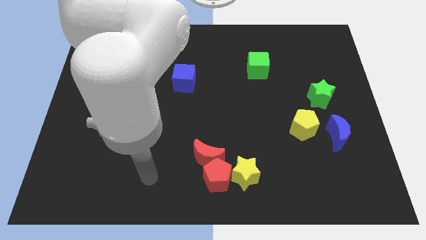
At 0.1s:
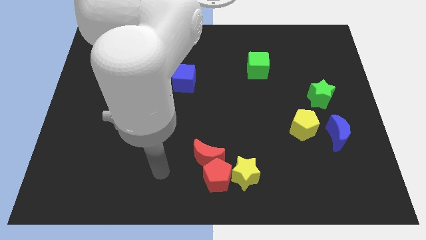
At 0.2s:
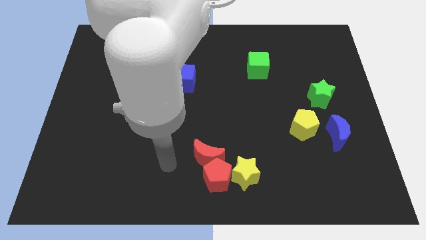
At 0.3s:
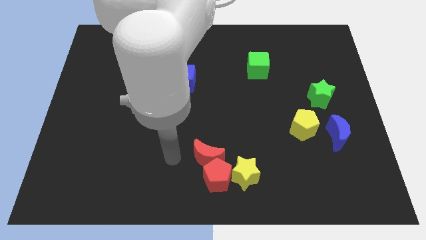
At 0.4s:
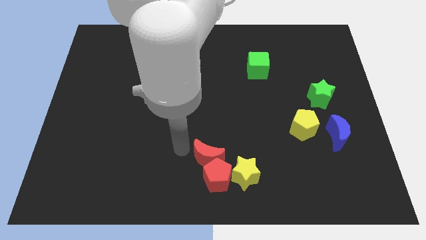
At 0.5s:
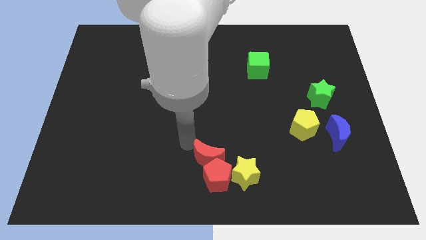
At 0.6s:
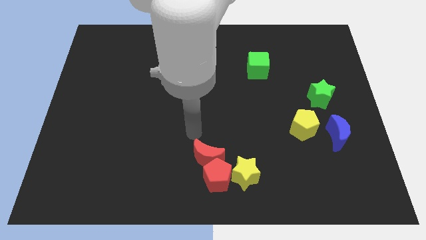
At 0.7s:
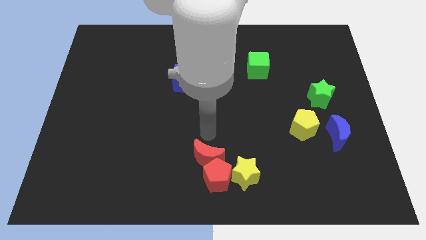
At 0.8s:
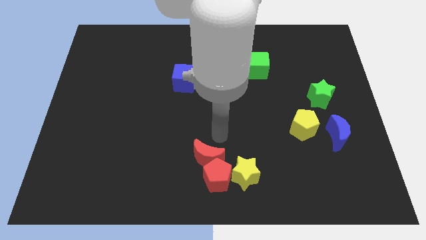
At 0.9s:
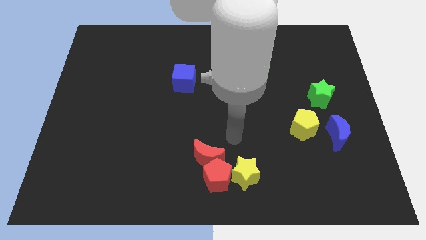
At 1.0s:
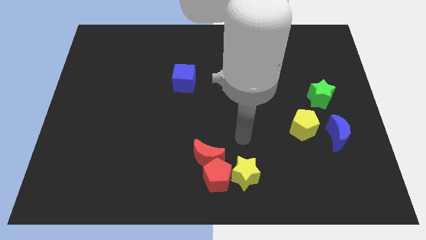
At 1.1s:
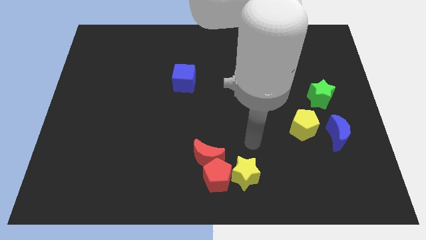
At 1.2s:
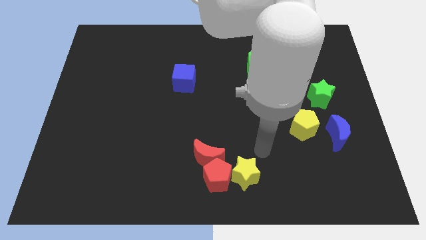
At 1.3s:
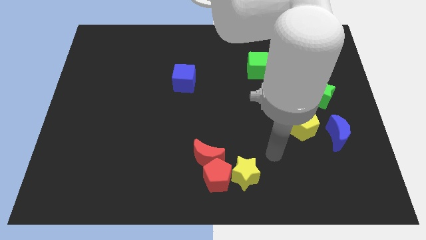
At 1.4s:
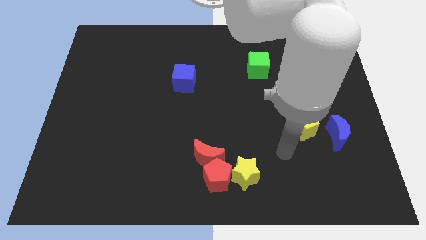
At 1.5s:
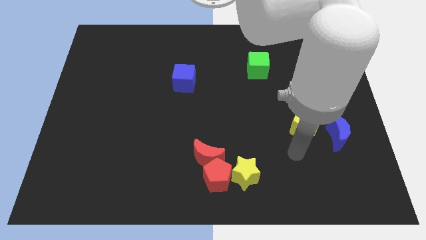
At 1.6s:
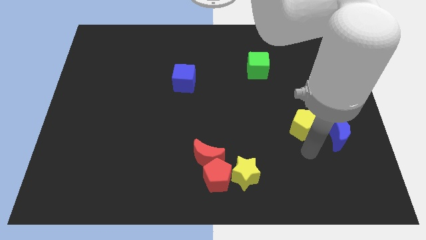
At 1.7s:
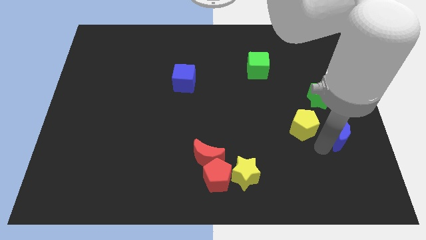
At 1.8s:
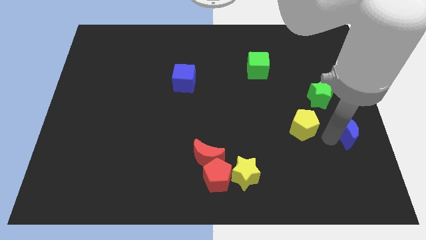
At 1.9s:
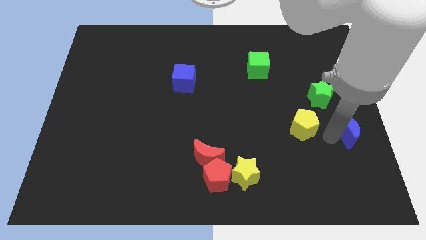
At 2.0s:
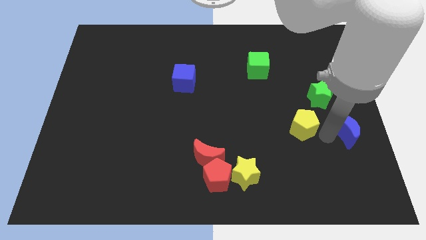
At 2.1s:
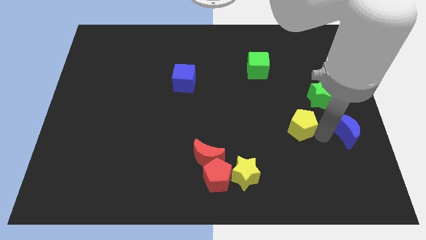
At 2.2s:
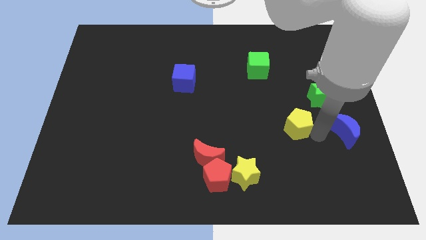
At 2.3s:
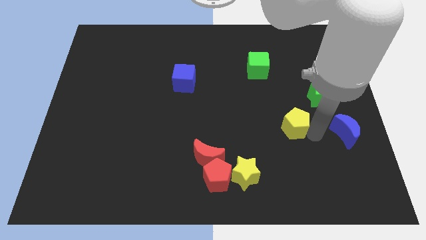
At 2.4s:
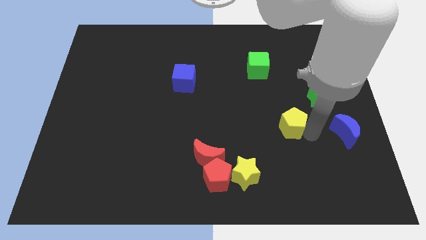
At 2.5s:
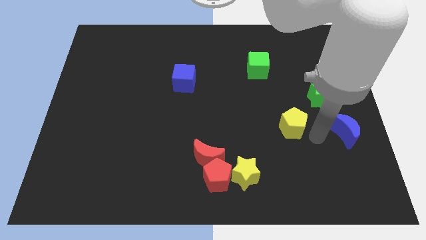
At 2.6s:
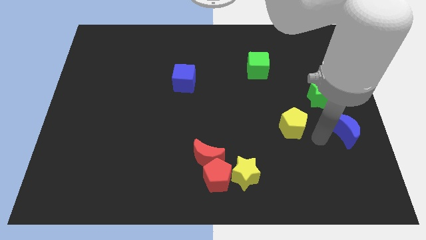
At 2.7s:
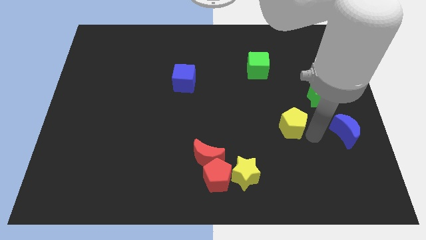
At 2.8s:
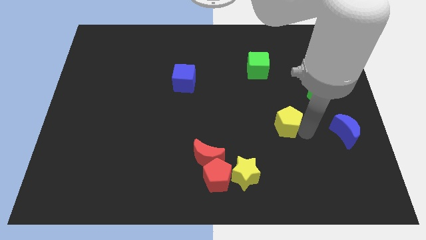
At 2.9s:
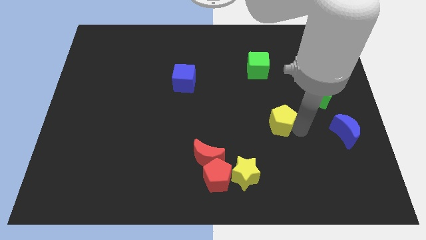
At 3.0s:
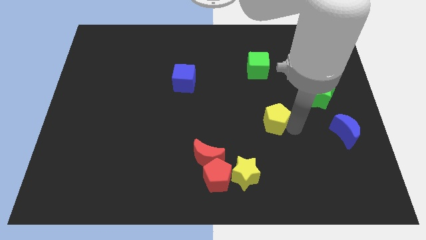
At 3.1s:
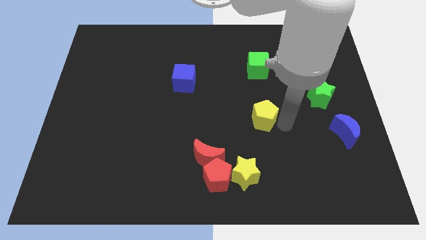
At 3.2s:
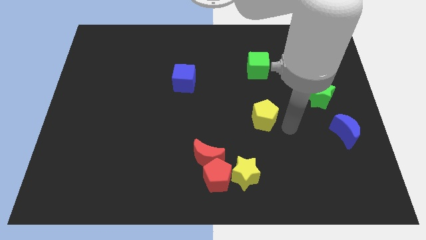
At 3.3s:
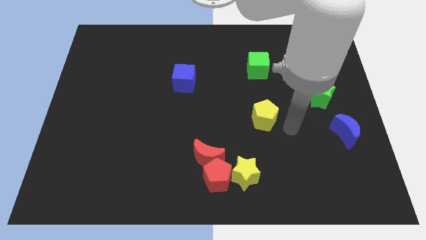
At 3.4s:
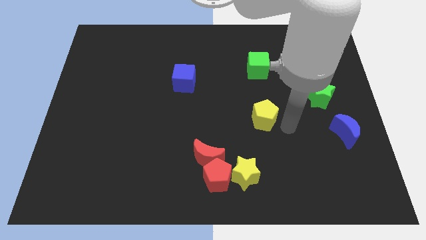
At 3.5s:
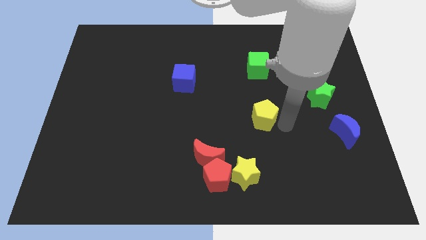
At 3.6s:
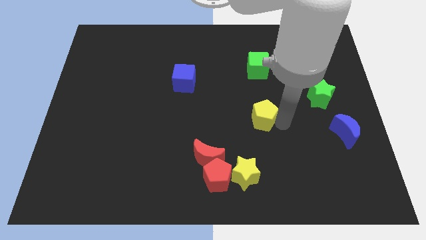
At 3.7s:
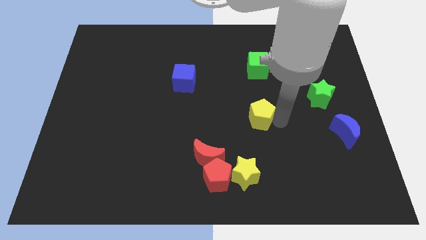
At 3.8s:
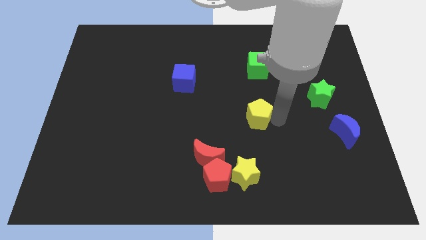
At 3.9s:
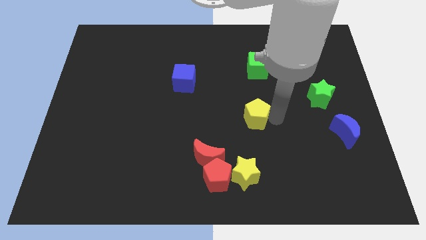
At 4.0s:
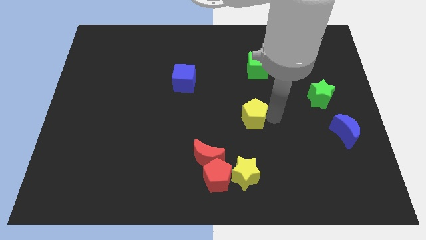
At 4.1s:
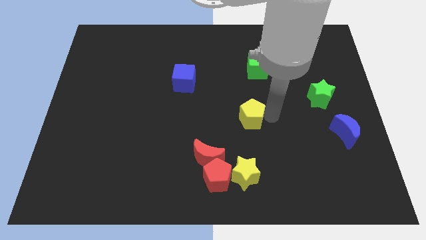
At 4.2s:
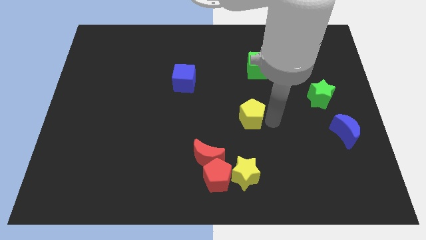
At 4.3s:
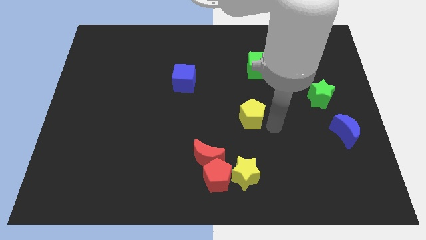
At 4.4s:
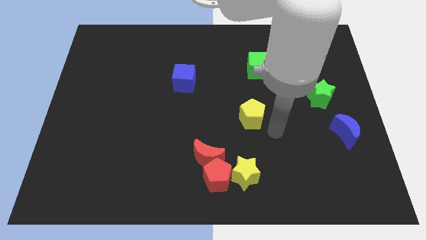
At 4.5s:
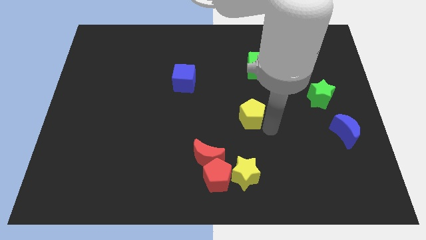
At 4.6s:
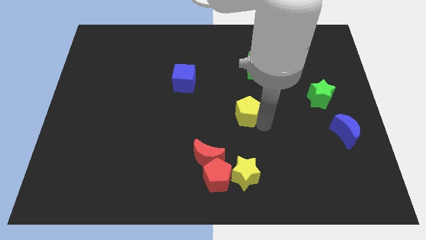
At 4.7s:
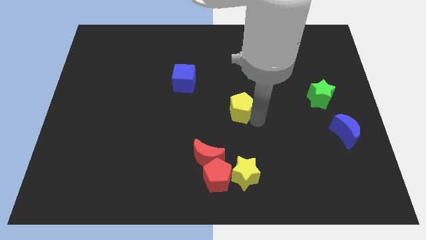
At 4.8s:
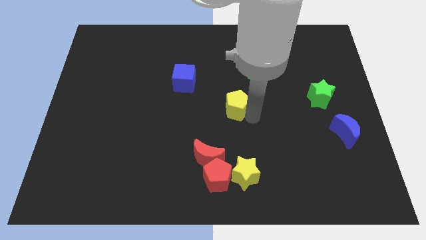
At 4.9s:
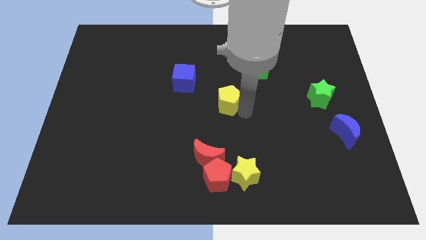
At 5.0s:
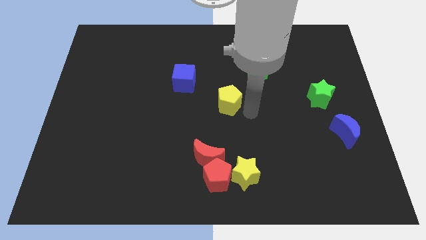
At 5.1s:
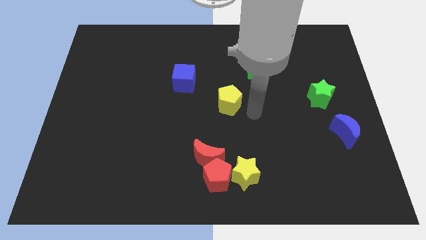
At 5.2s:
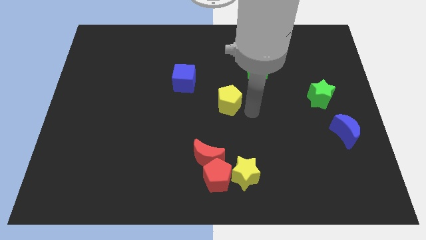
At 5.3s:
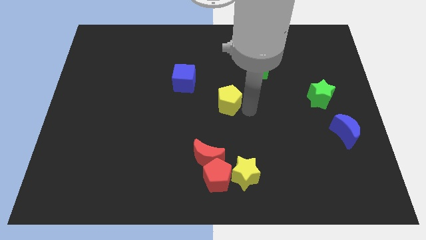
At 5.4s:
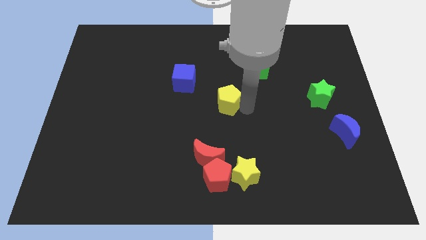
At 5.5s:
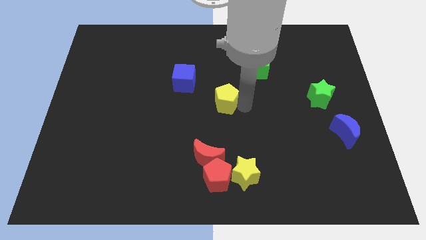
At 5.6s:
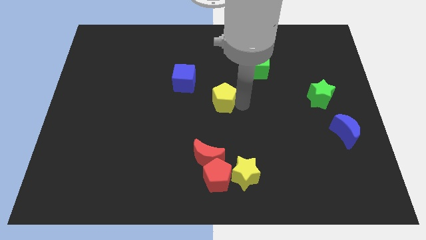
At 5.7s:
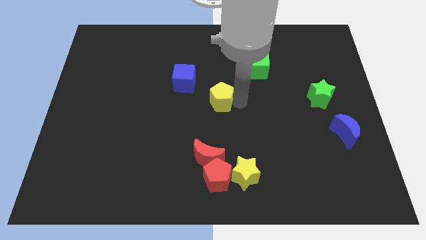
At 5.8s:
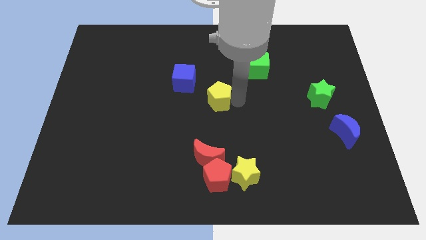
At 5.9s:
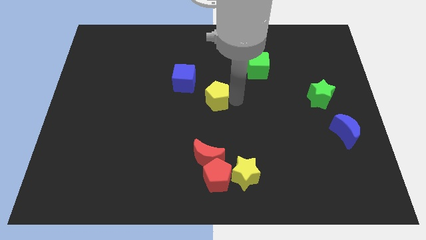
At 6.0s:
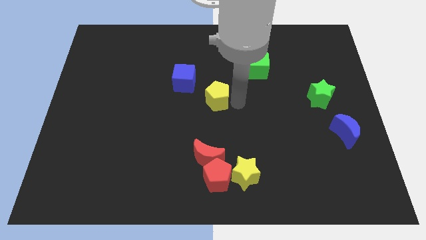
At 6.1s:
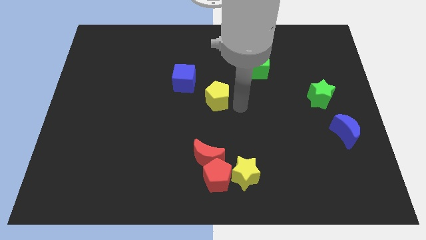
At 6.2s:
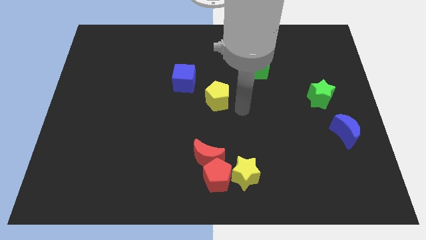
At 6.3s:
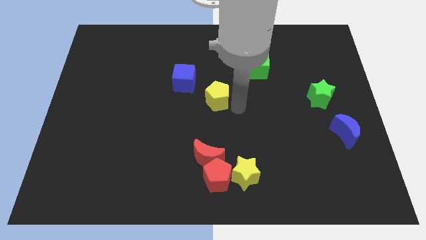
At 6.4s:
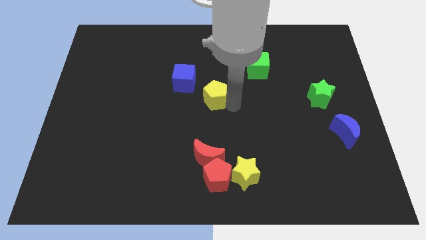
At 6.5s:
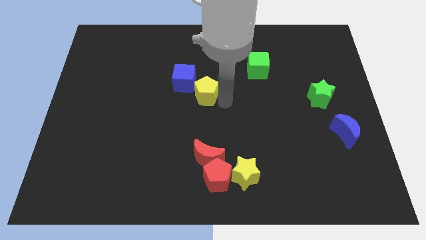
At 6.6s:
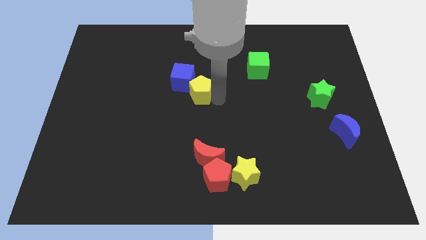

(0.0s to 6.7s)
put the yellow pentagon towards the blue cube

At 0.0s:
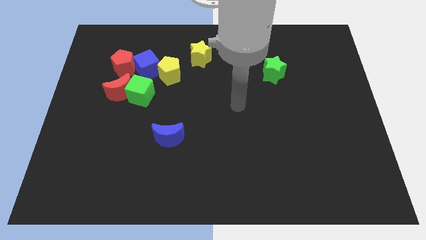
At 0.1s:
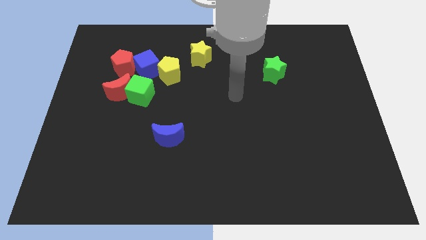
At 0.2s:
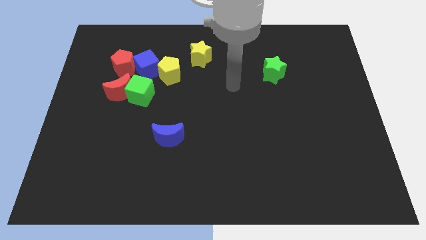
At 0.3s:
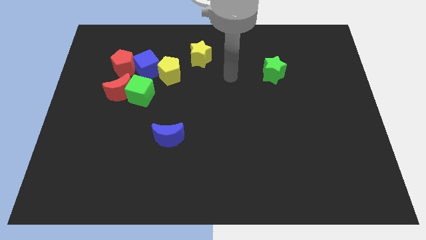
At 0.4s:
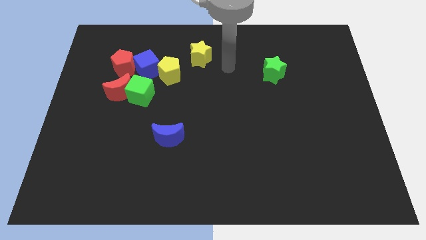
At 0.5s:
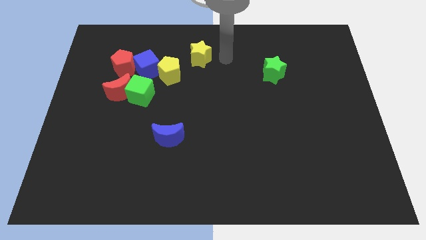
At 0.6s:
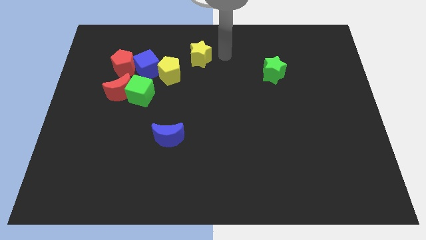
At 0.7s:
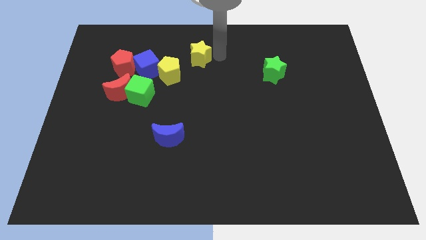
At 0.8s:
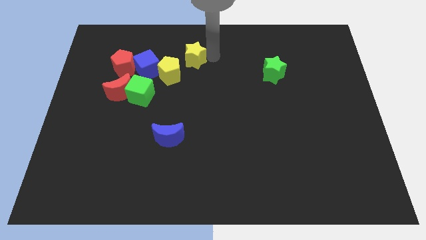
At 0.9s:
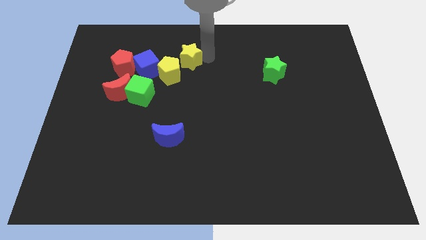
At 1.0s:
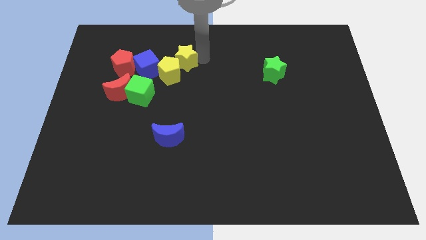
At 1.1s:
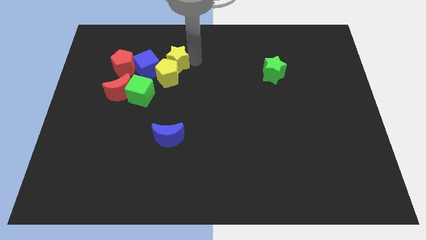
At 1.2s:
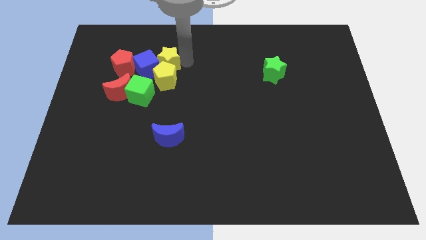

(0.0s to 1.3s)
push the yellow star to the blue cube
